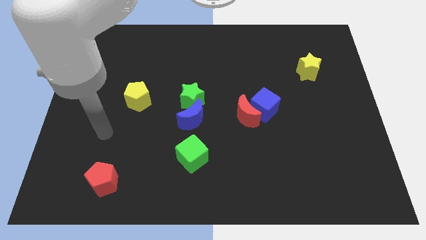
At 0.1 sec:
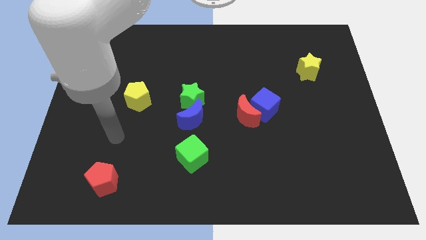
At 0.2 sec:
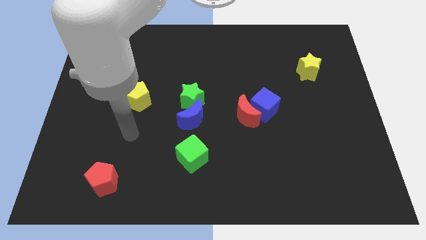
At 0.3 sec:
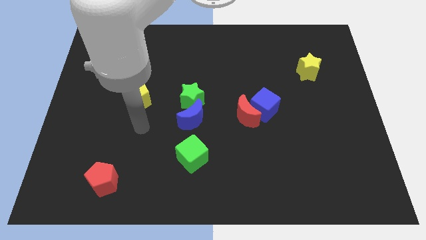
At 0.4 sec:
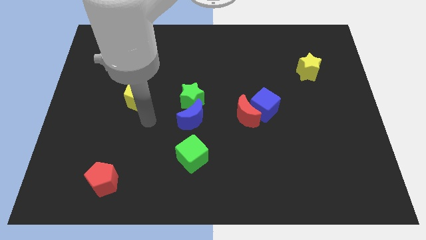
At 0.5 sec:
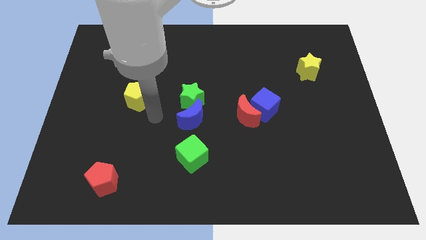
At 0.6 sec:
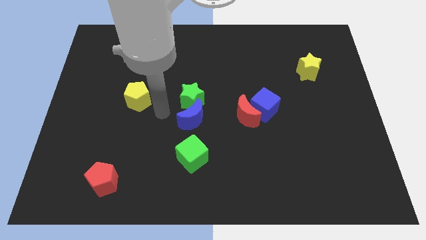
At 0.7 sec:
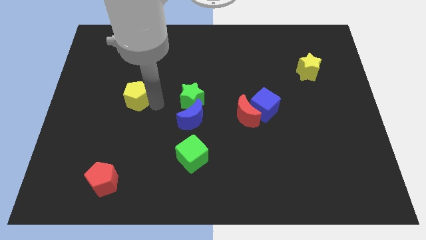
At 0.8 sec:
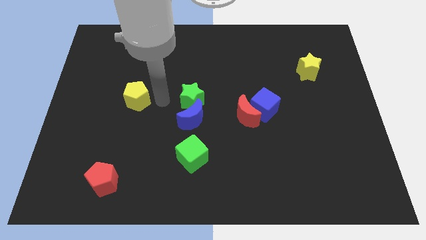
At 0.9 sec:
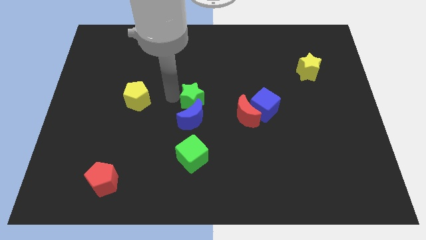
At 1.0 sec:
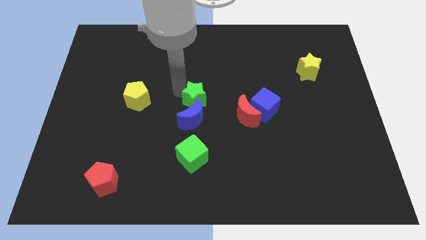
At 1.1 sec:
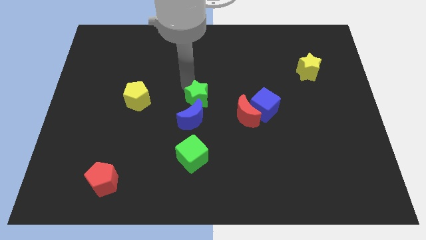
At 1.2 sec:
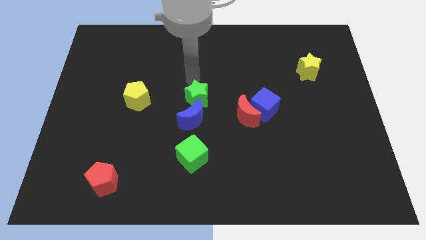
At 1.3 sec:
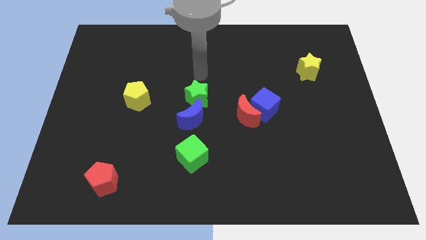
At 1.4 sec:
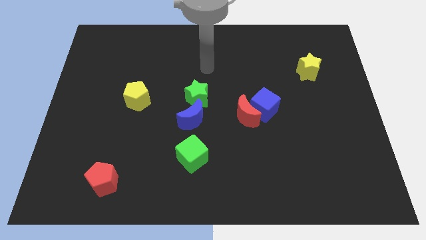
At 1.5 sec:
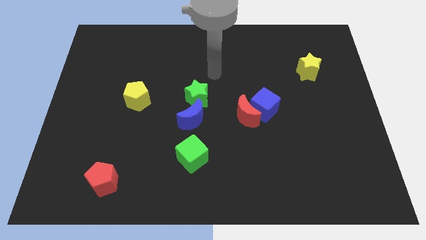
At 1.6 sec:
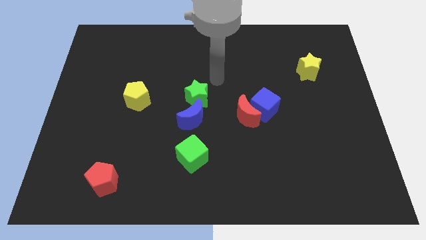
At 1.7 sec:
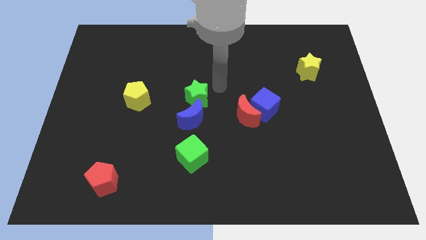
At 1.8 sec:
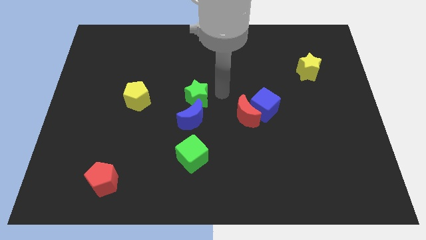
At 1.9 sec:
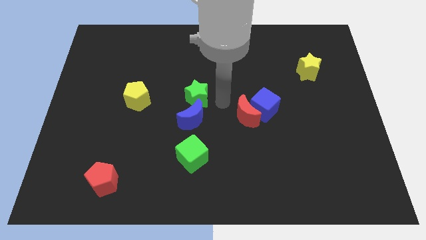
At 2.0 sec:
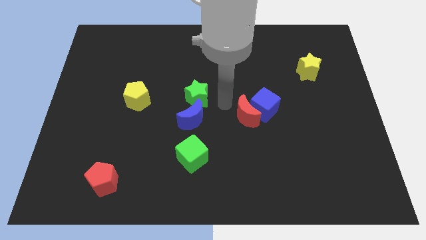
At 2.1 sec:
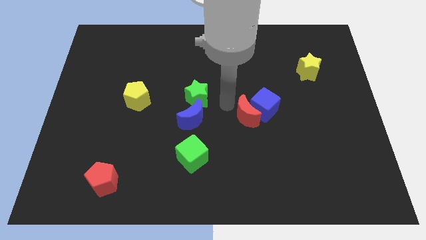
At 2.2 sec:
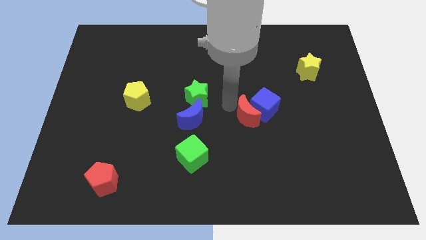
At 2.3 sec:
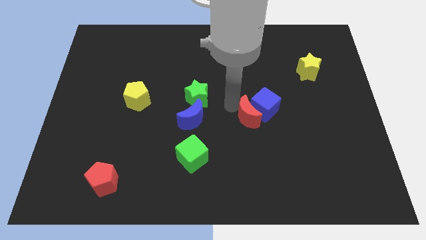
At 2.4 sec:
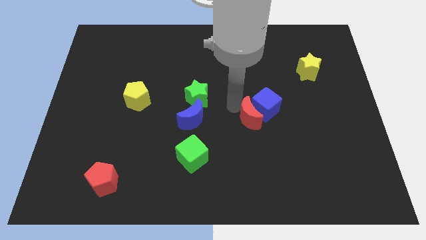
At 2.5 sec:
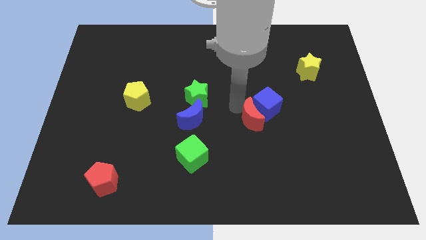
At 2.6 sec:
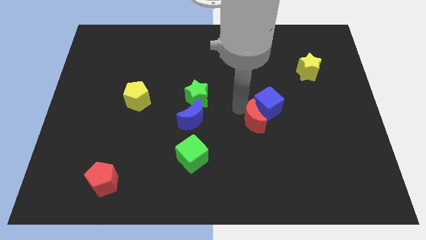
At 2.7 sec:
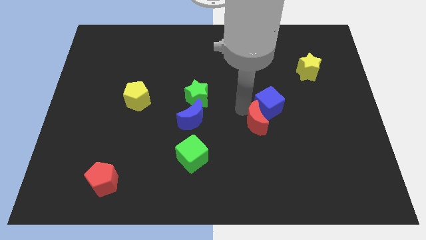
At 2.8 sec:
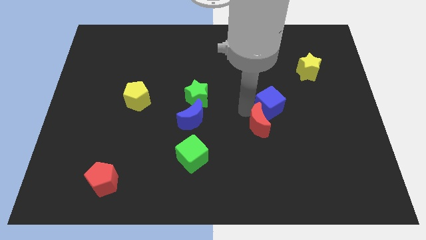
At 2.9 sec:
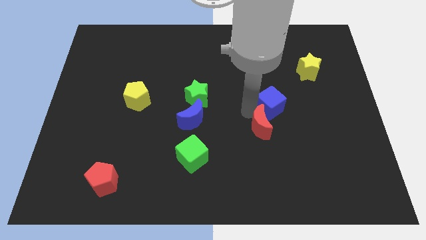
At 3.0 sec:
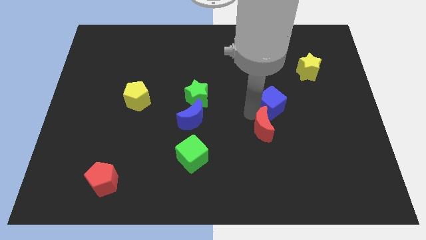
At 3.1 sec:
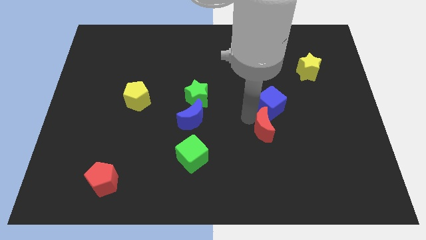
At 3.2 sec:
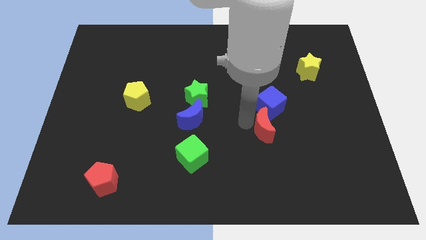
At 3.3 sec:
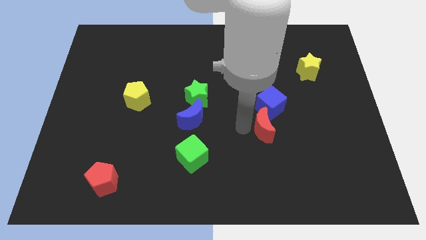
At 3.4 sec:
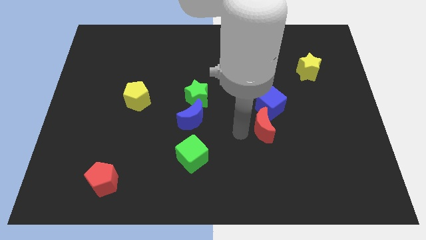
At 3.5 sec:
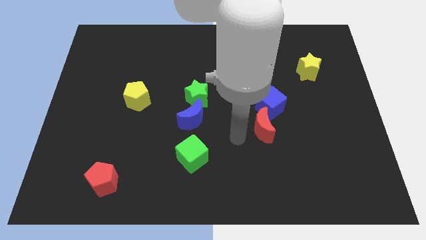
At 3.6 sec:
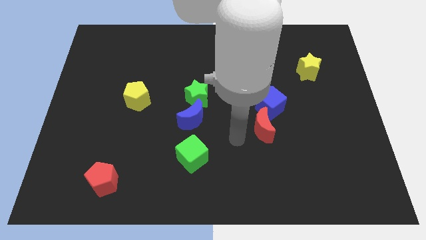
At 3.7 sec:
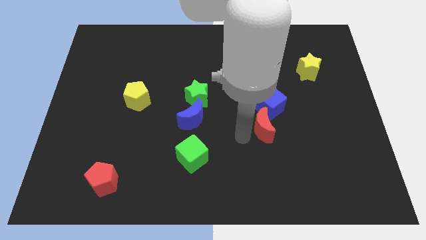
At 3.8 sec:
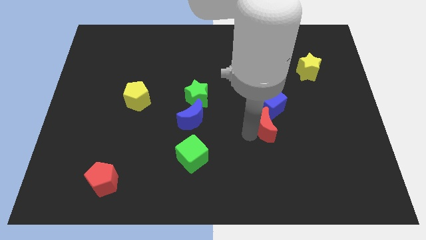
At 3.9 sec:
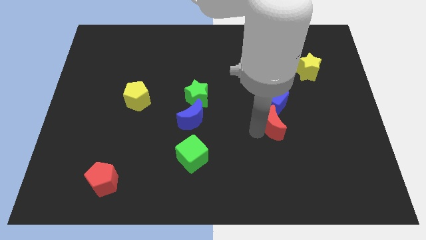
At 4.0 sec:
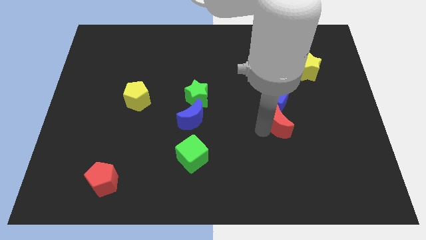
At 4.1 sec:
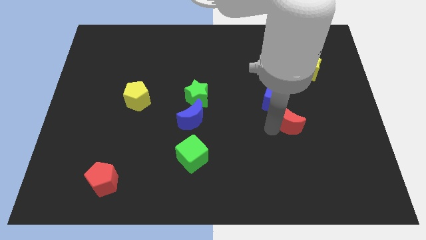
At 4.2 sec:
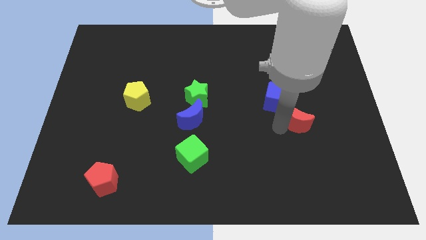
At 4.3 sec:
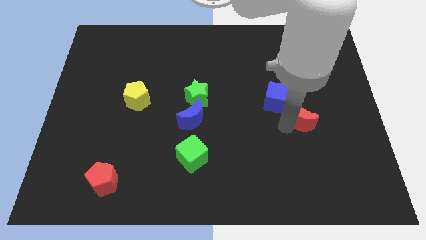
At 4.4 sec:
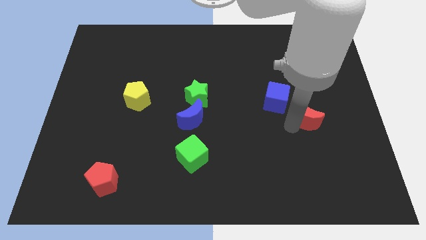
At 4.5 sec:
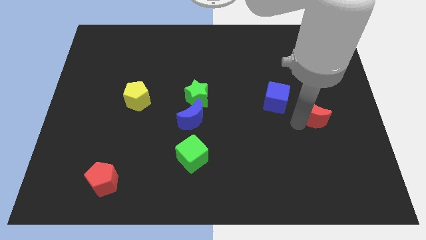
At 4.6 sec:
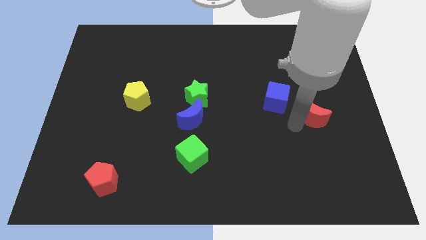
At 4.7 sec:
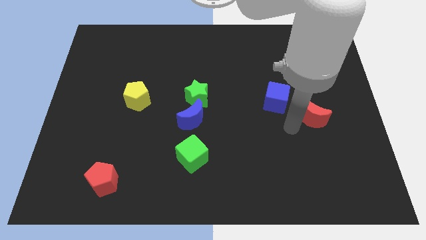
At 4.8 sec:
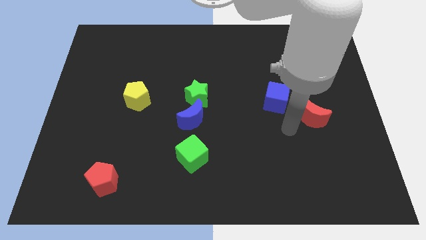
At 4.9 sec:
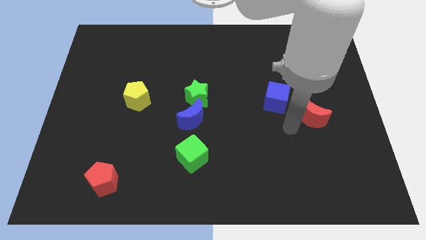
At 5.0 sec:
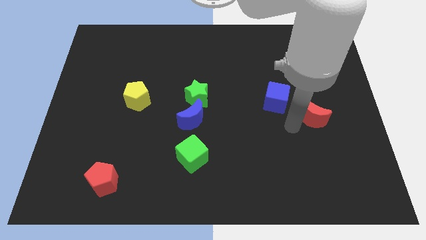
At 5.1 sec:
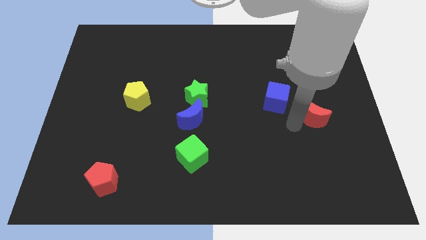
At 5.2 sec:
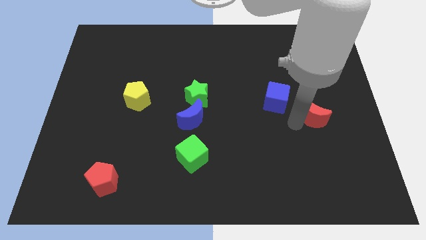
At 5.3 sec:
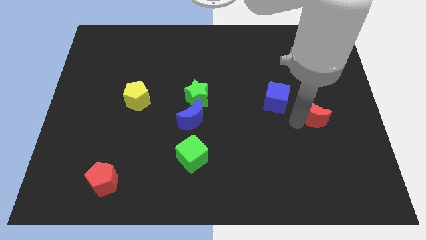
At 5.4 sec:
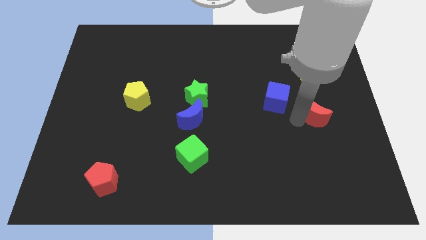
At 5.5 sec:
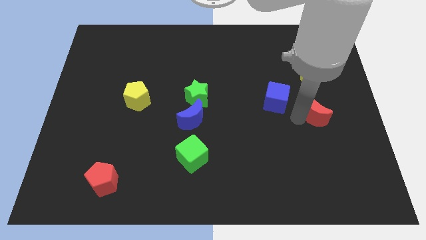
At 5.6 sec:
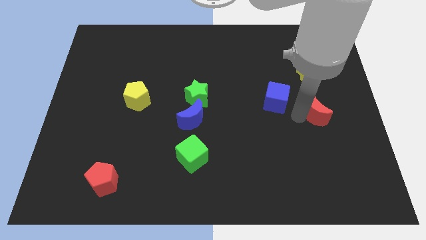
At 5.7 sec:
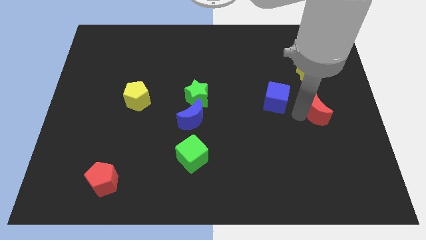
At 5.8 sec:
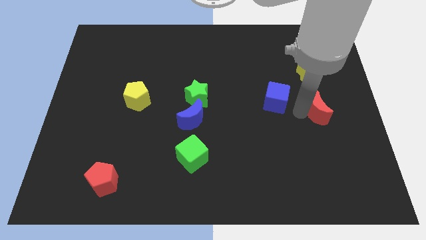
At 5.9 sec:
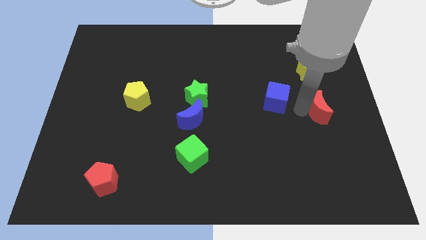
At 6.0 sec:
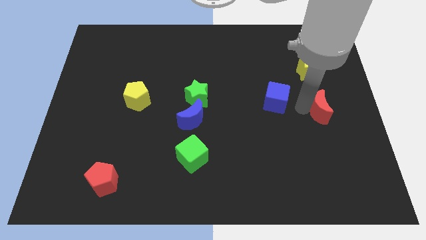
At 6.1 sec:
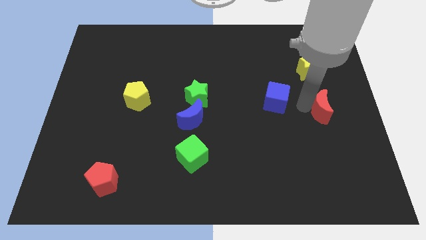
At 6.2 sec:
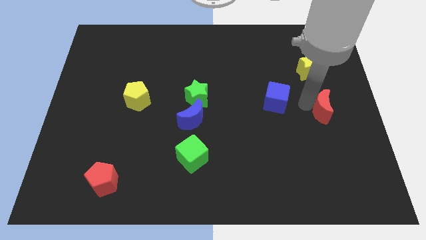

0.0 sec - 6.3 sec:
push the red moon to the center right

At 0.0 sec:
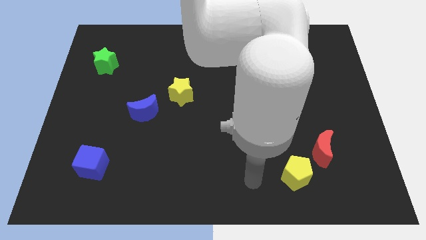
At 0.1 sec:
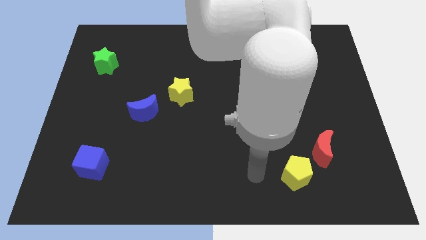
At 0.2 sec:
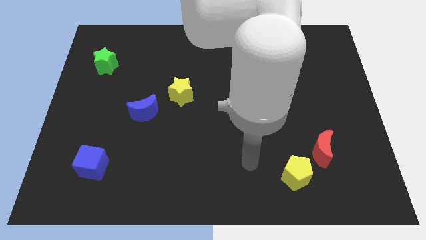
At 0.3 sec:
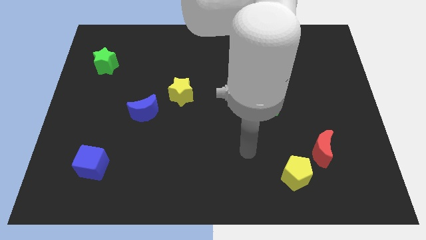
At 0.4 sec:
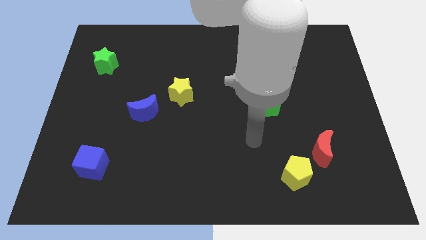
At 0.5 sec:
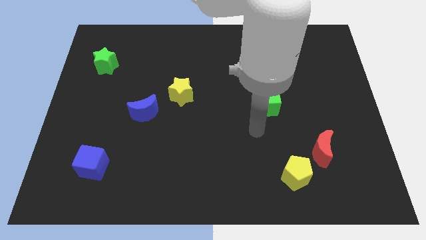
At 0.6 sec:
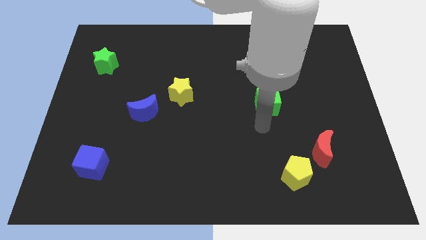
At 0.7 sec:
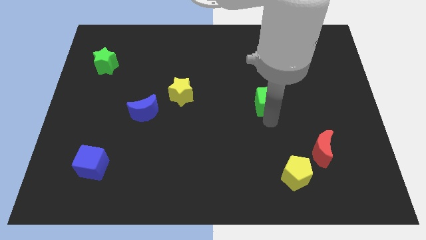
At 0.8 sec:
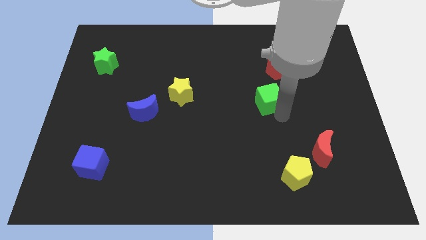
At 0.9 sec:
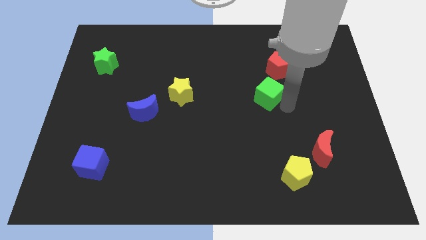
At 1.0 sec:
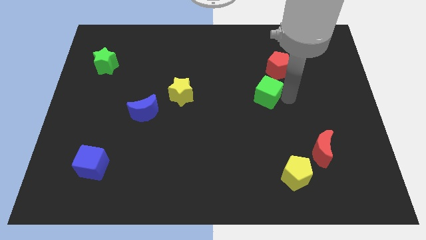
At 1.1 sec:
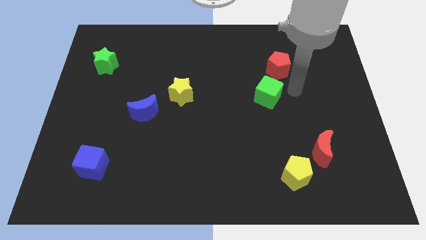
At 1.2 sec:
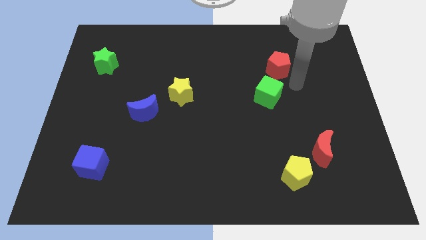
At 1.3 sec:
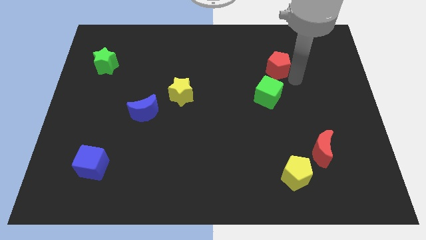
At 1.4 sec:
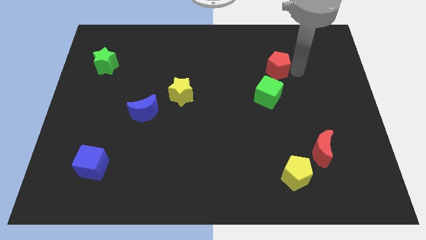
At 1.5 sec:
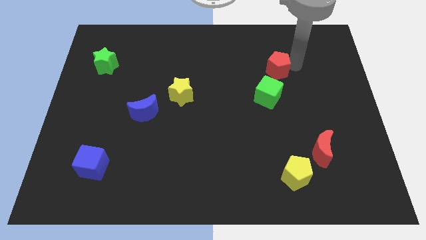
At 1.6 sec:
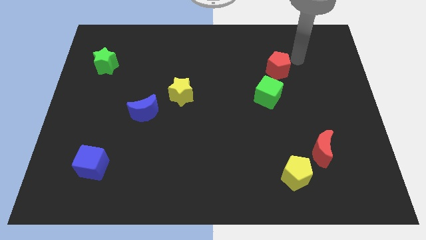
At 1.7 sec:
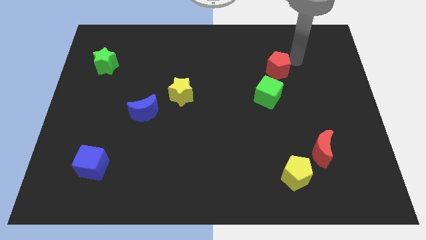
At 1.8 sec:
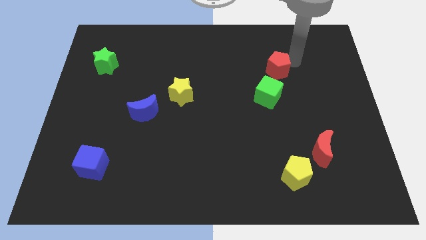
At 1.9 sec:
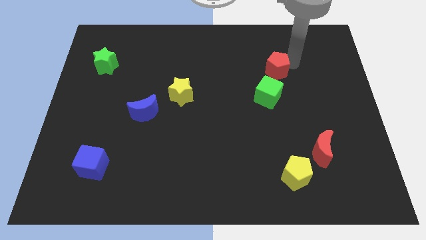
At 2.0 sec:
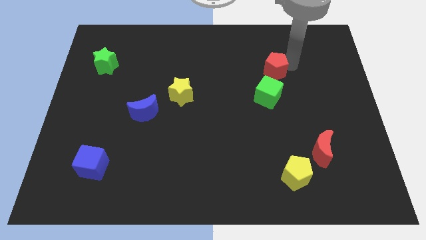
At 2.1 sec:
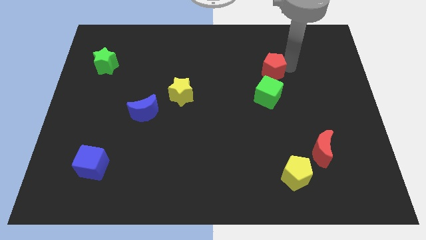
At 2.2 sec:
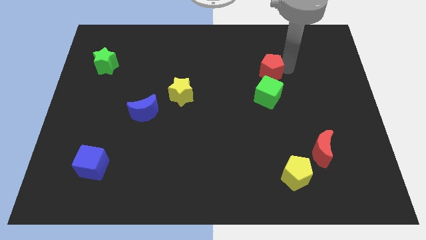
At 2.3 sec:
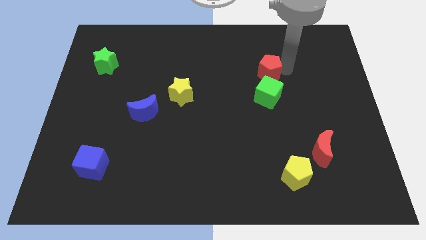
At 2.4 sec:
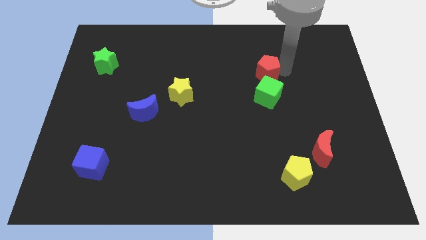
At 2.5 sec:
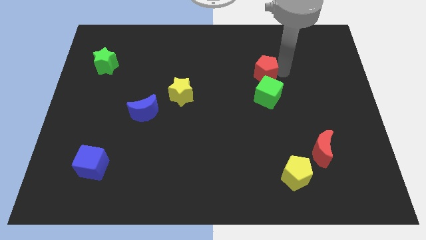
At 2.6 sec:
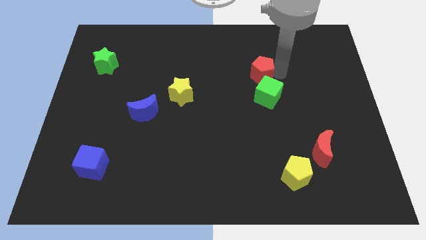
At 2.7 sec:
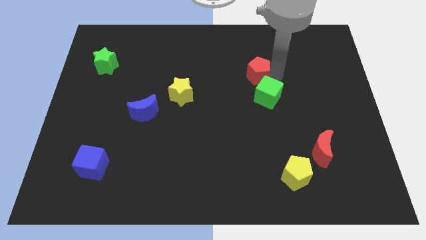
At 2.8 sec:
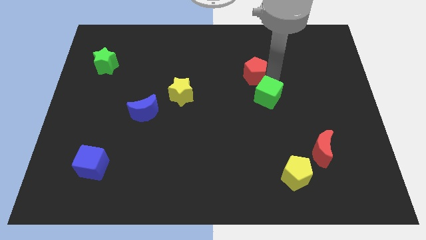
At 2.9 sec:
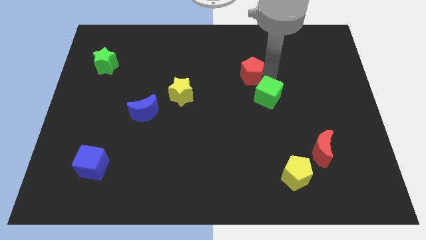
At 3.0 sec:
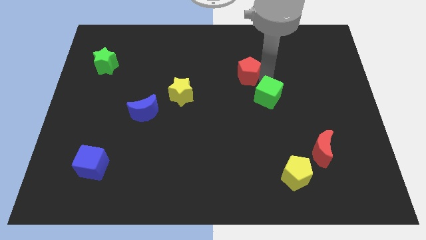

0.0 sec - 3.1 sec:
push the red pentagon to the middle of the board
